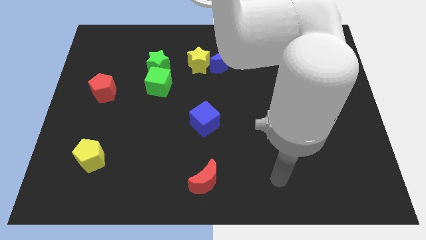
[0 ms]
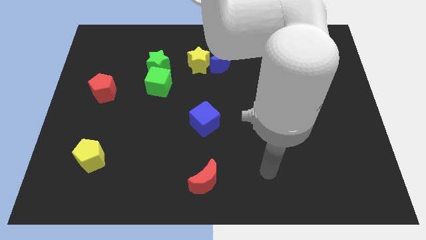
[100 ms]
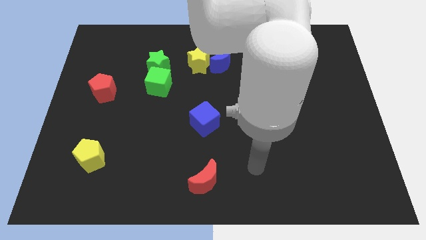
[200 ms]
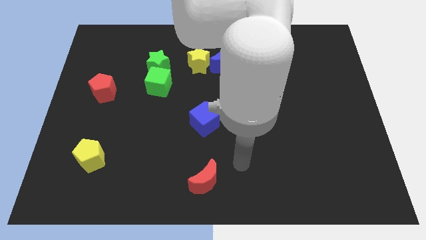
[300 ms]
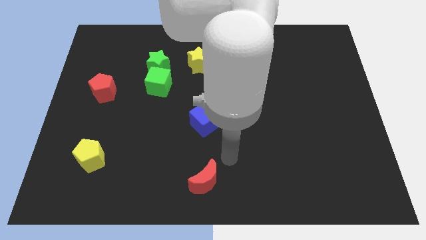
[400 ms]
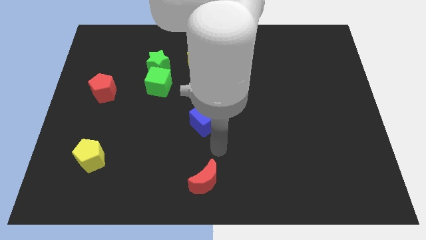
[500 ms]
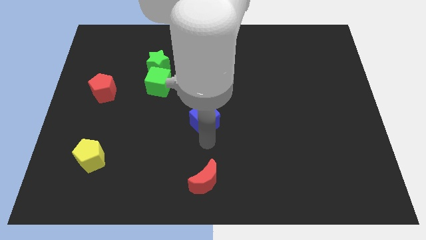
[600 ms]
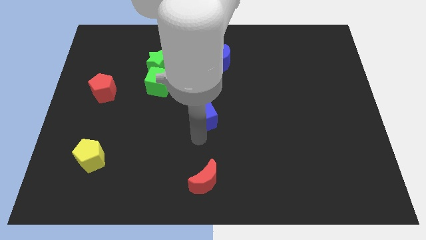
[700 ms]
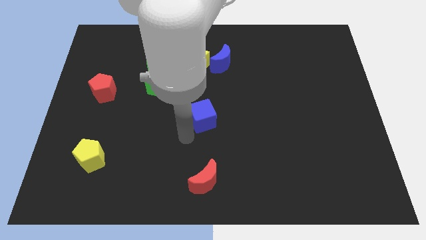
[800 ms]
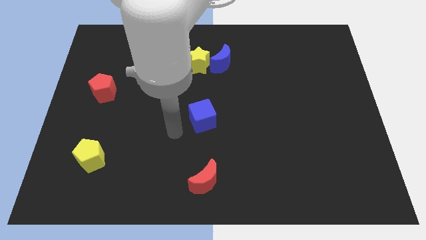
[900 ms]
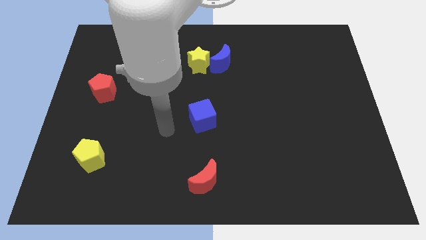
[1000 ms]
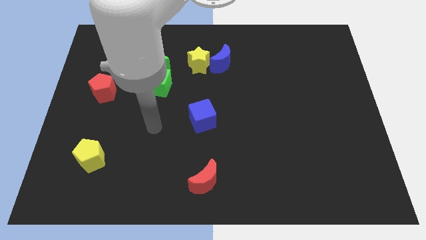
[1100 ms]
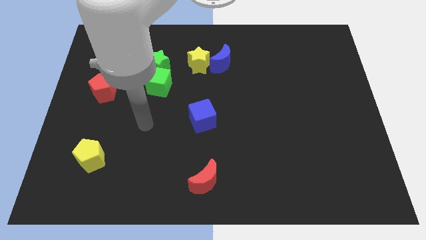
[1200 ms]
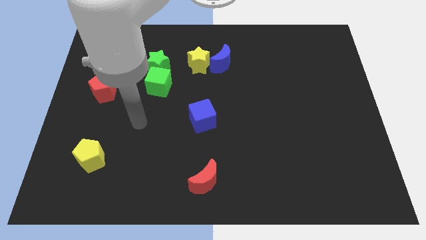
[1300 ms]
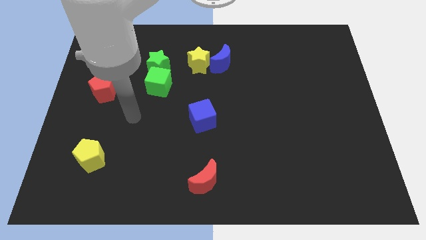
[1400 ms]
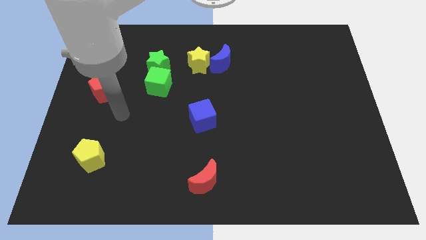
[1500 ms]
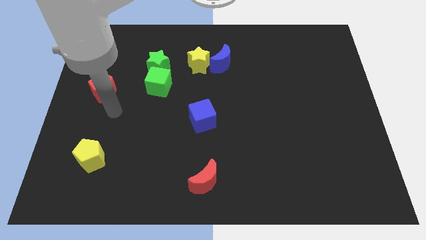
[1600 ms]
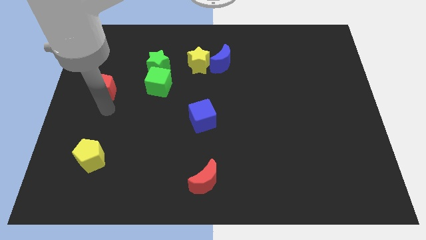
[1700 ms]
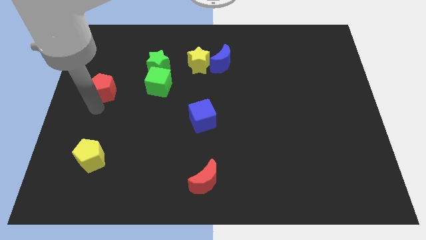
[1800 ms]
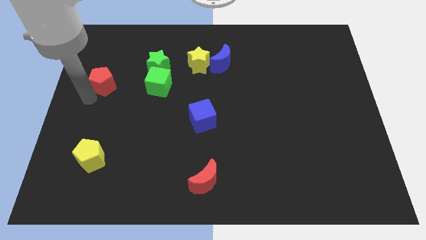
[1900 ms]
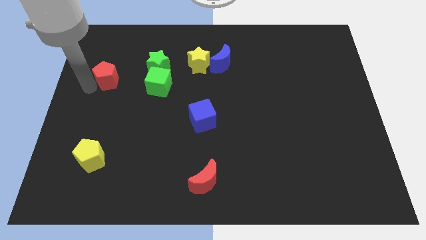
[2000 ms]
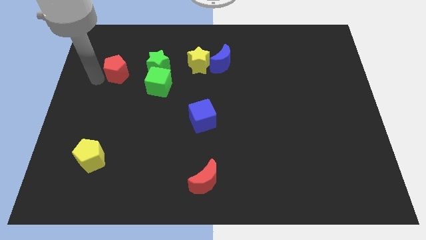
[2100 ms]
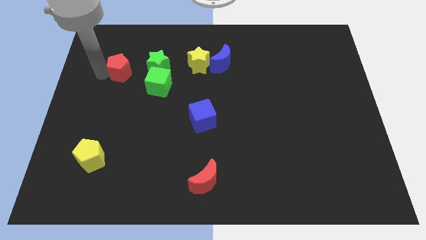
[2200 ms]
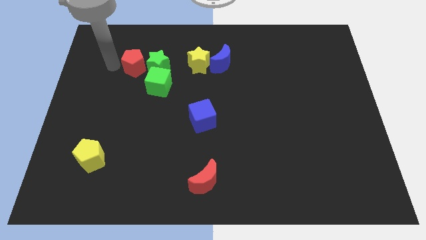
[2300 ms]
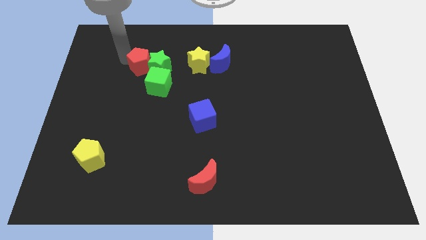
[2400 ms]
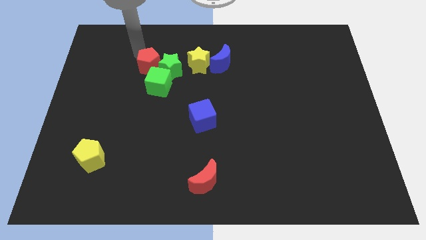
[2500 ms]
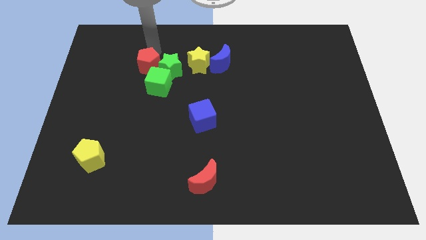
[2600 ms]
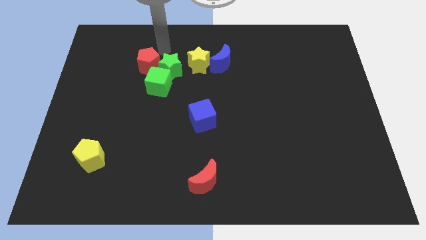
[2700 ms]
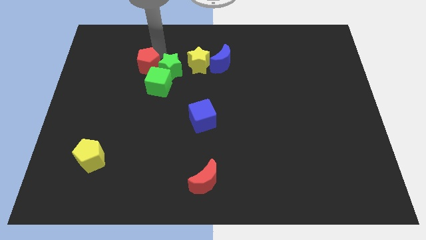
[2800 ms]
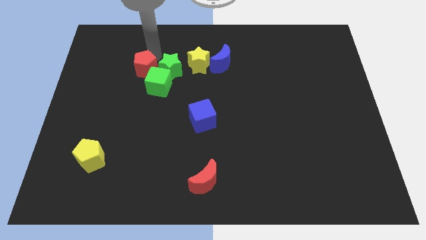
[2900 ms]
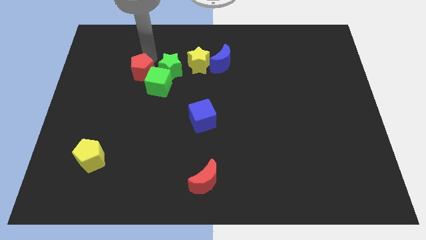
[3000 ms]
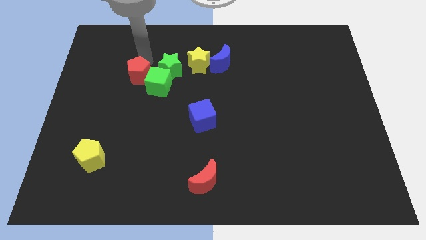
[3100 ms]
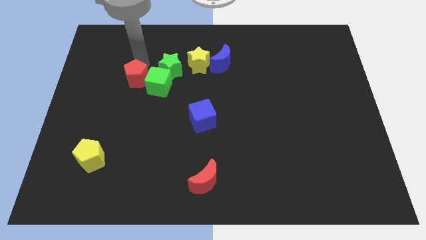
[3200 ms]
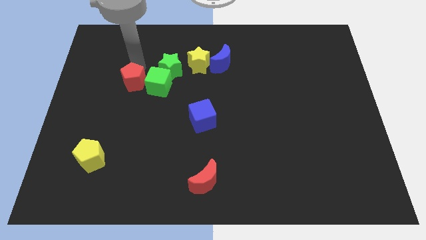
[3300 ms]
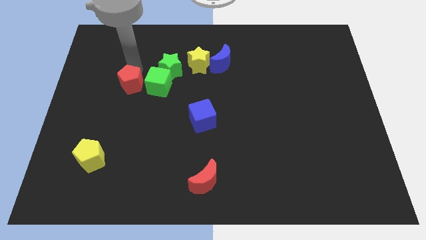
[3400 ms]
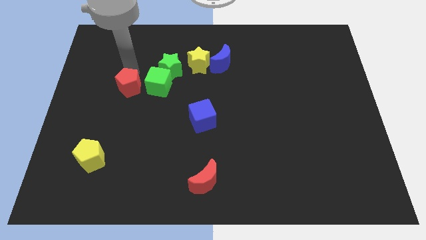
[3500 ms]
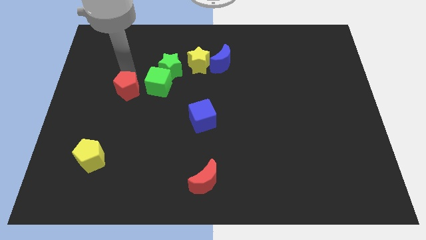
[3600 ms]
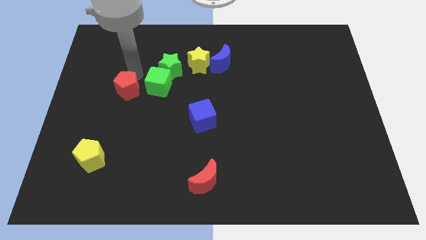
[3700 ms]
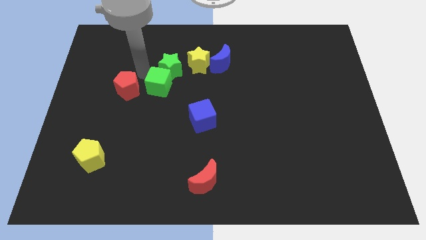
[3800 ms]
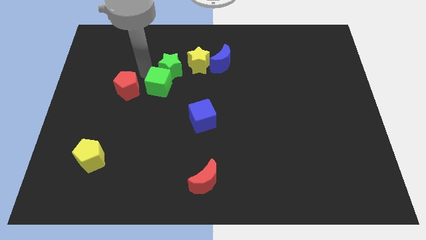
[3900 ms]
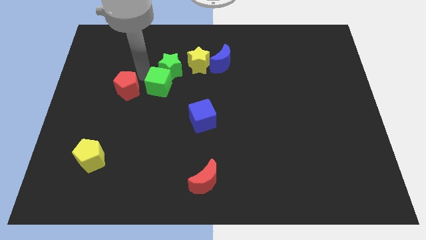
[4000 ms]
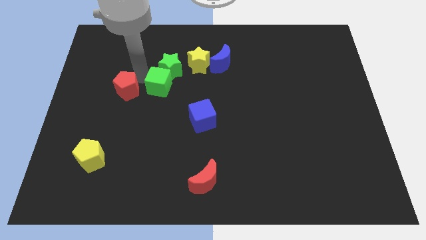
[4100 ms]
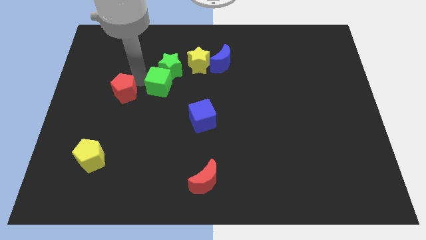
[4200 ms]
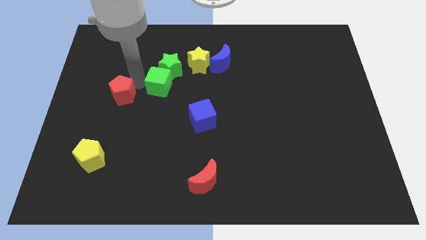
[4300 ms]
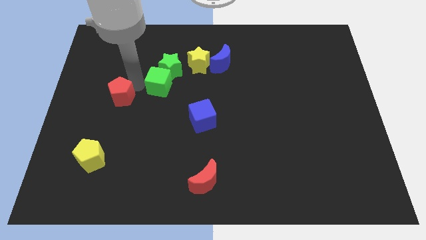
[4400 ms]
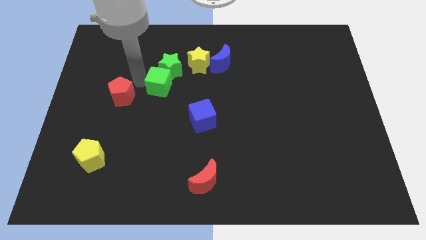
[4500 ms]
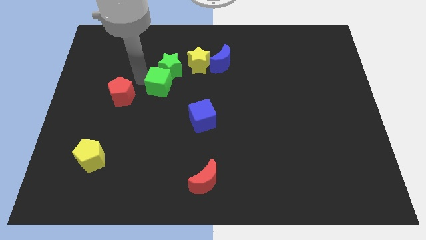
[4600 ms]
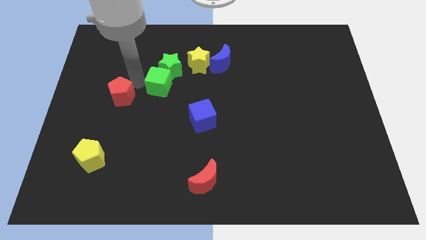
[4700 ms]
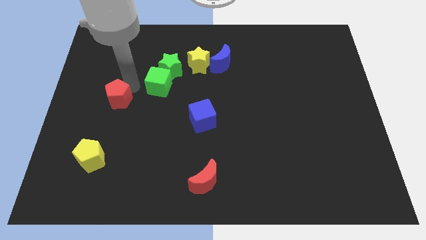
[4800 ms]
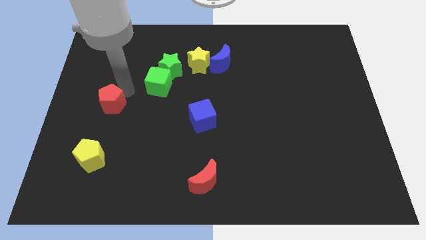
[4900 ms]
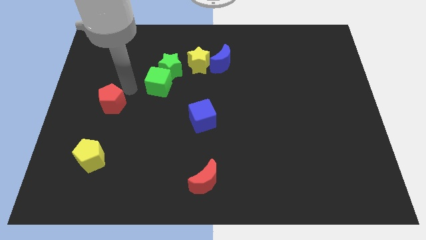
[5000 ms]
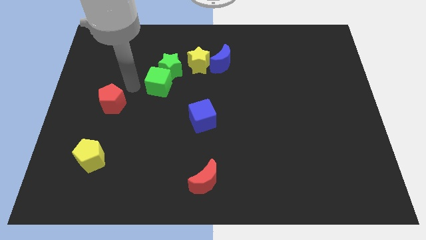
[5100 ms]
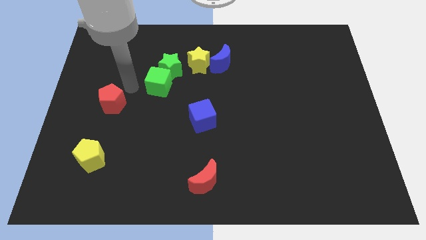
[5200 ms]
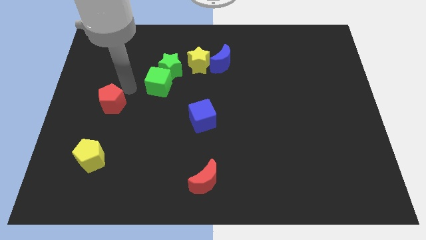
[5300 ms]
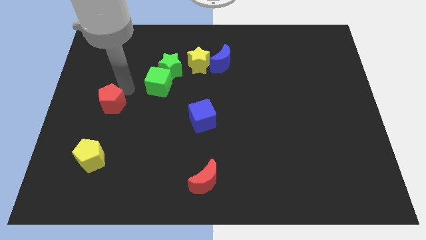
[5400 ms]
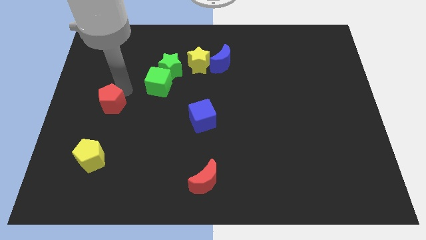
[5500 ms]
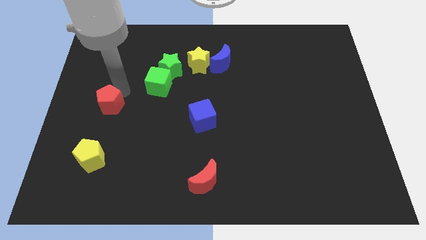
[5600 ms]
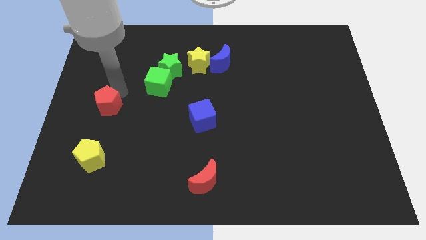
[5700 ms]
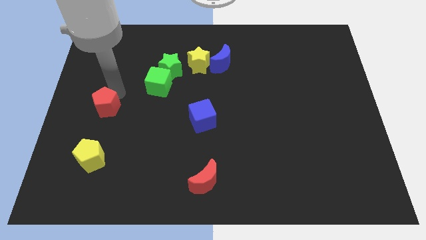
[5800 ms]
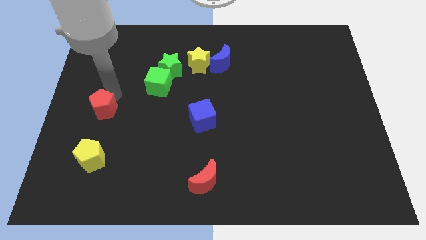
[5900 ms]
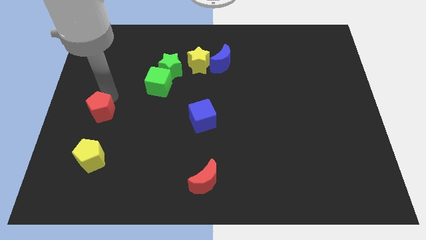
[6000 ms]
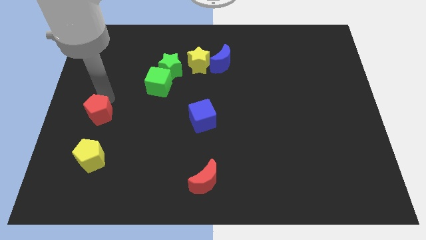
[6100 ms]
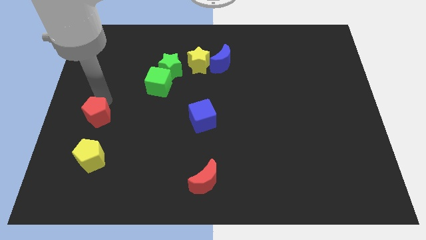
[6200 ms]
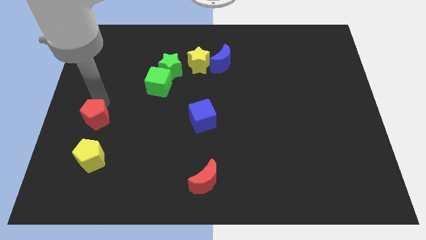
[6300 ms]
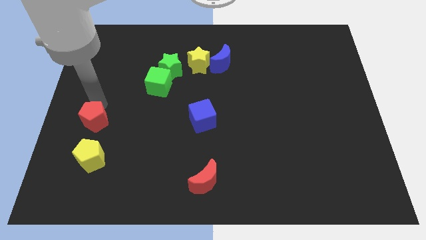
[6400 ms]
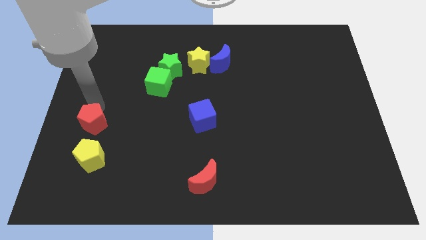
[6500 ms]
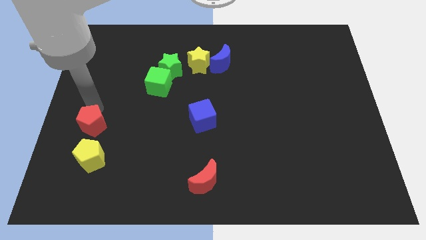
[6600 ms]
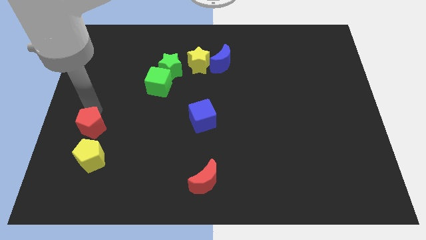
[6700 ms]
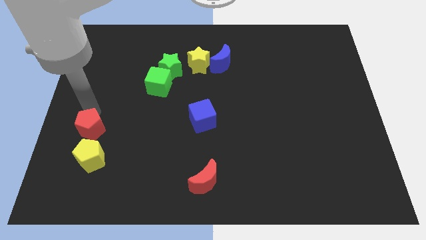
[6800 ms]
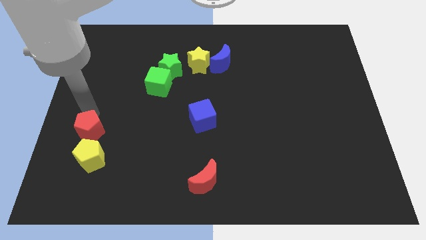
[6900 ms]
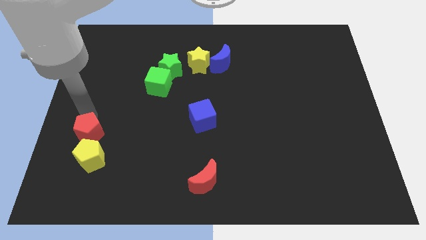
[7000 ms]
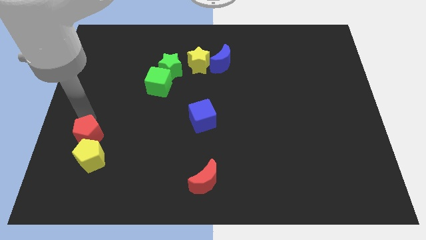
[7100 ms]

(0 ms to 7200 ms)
slide the red pentagon next to the yellow pentagon
